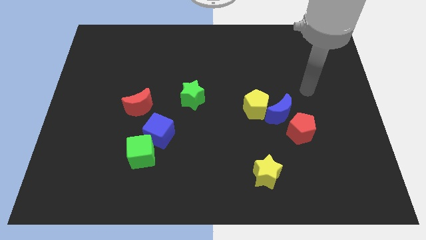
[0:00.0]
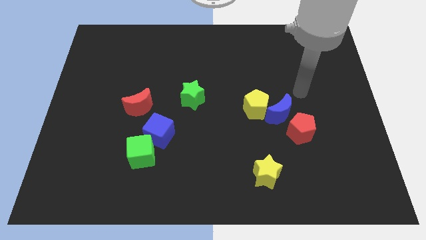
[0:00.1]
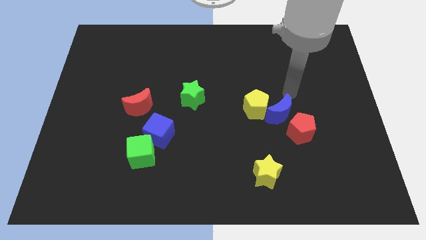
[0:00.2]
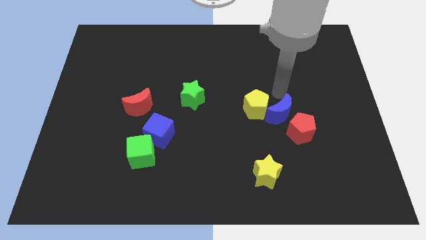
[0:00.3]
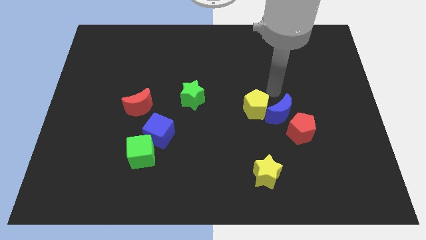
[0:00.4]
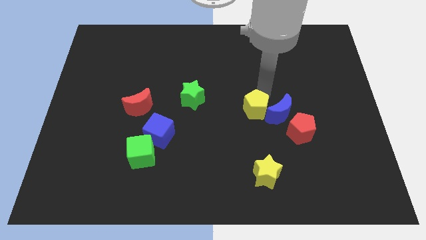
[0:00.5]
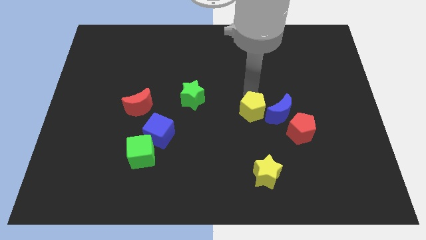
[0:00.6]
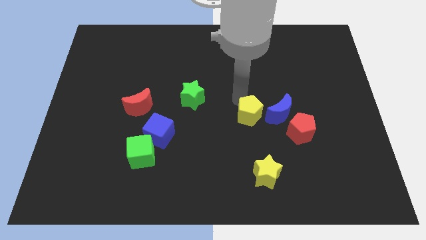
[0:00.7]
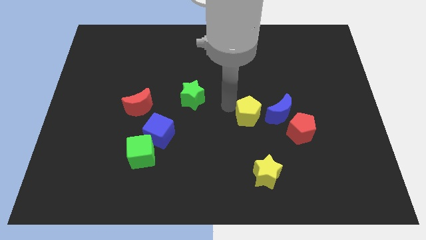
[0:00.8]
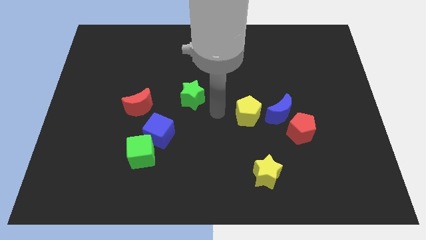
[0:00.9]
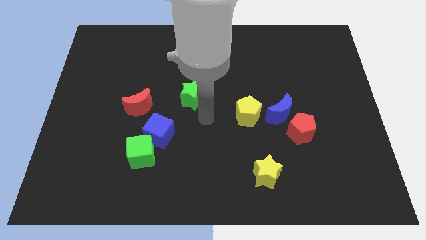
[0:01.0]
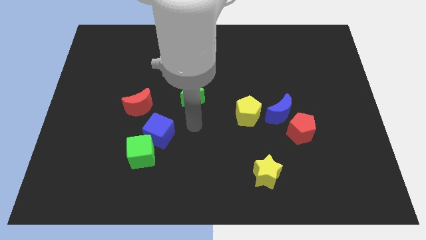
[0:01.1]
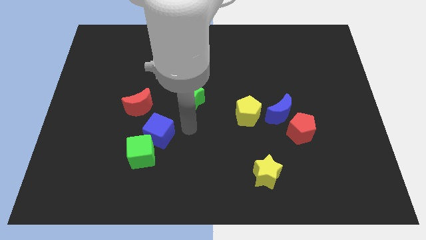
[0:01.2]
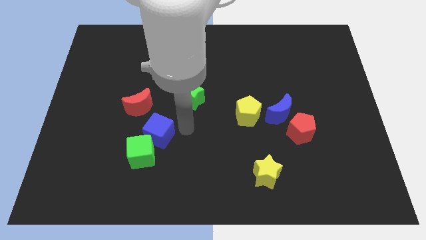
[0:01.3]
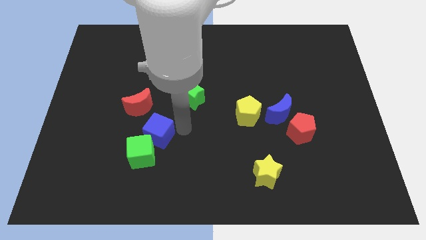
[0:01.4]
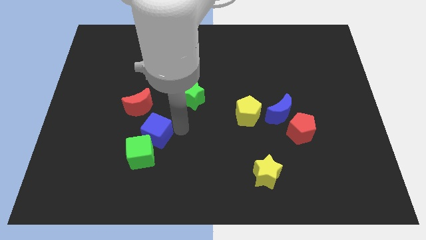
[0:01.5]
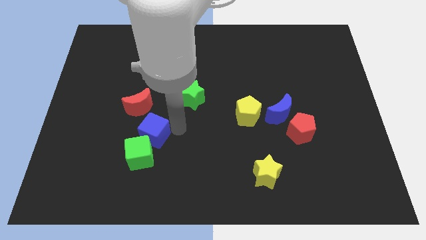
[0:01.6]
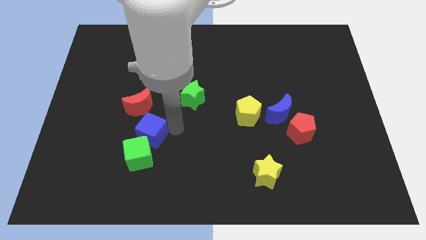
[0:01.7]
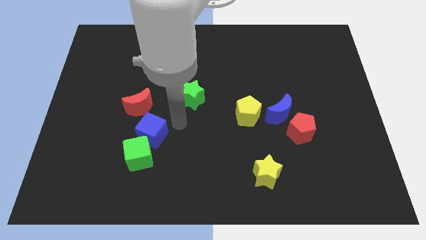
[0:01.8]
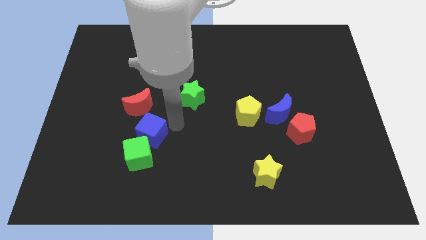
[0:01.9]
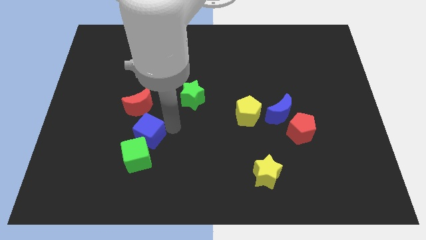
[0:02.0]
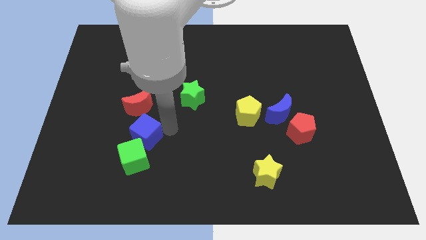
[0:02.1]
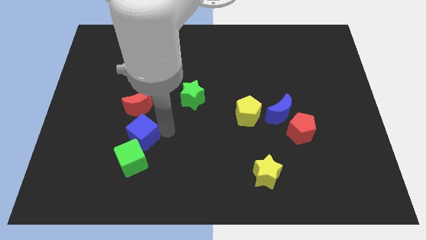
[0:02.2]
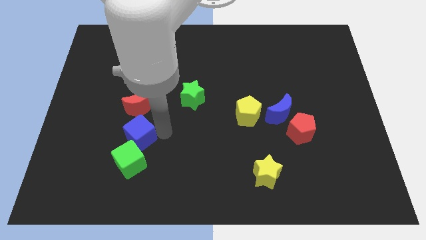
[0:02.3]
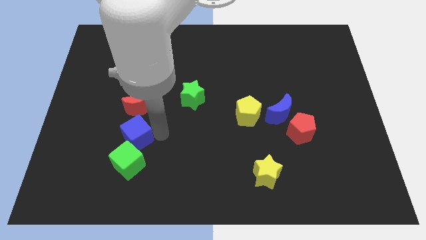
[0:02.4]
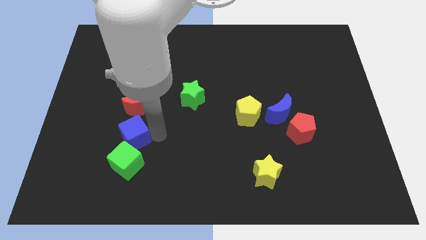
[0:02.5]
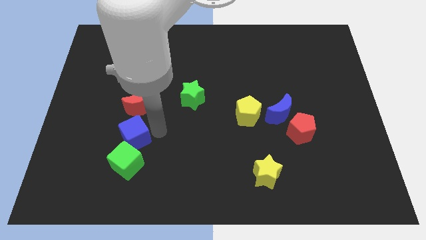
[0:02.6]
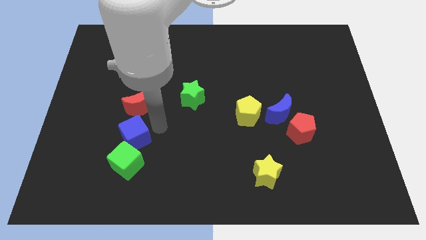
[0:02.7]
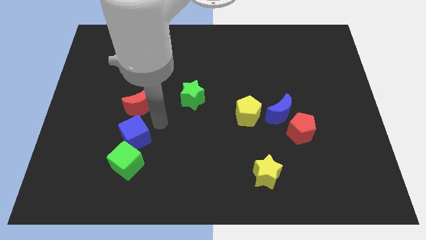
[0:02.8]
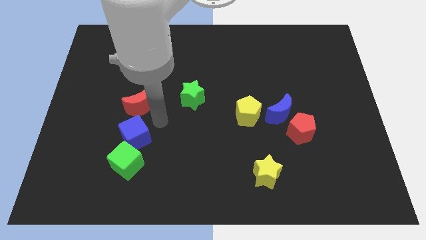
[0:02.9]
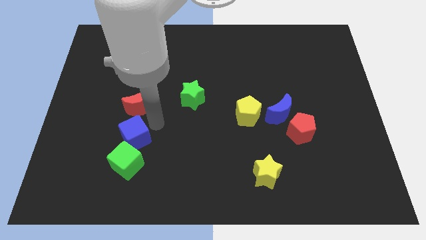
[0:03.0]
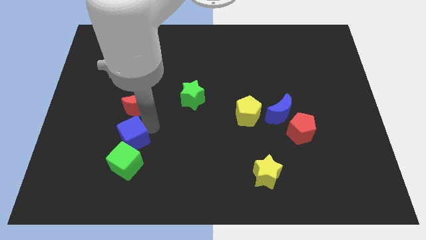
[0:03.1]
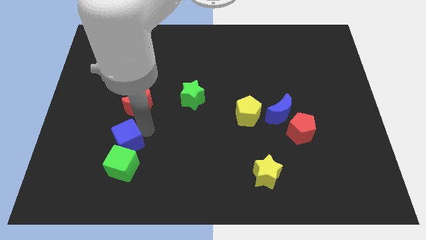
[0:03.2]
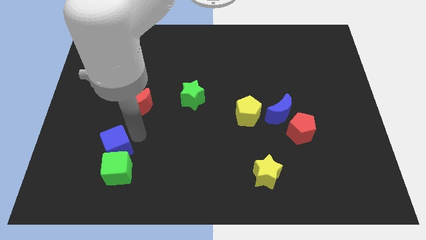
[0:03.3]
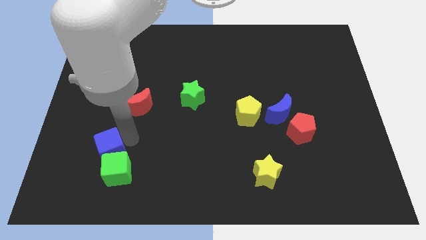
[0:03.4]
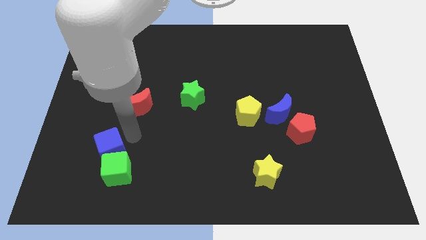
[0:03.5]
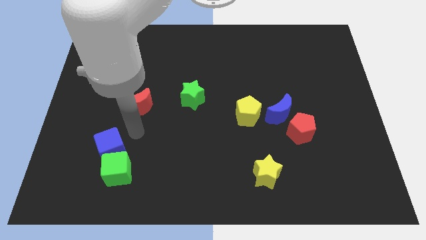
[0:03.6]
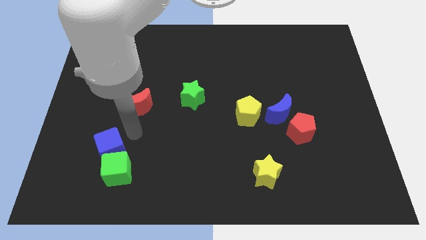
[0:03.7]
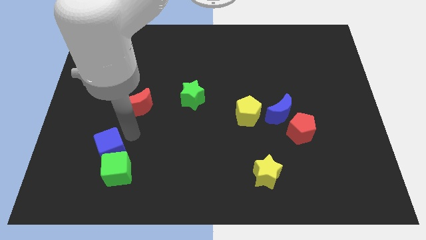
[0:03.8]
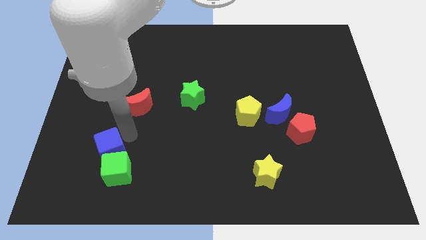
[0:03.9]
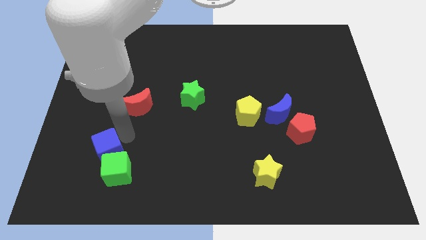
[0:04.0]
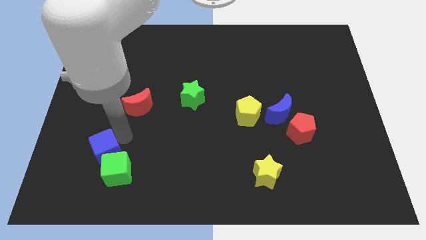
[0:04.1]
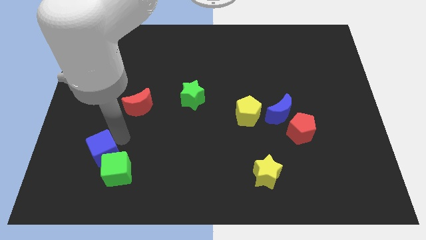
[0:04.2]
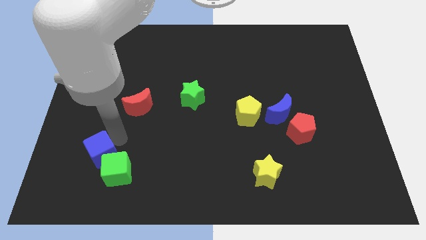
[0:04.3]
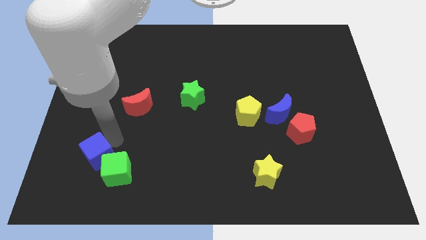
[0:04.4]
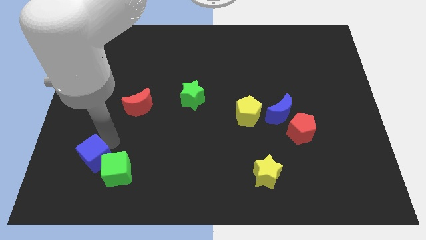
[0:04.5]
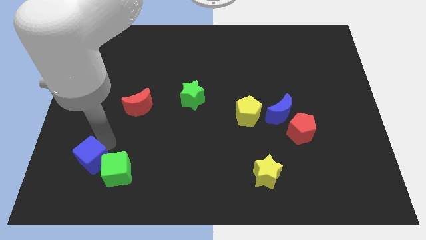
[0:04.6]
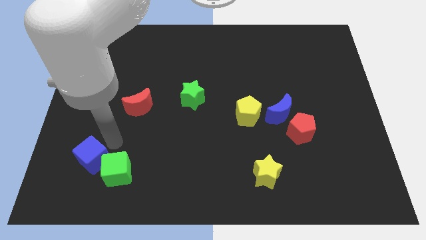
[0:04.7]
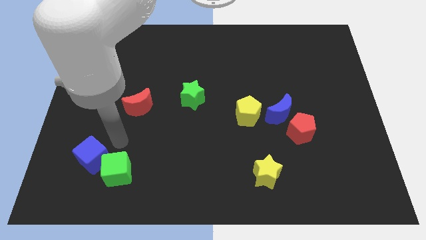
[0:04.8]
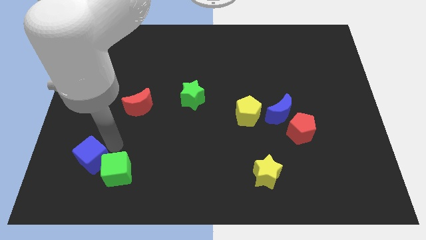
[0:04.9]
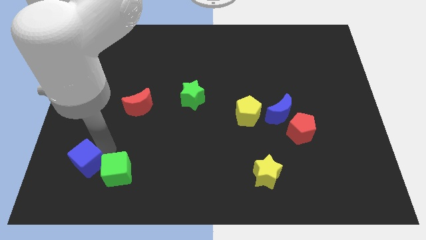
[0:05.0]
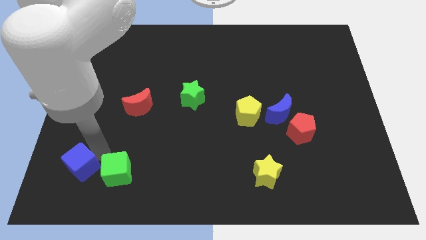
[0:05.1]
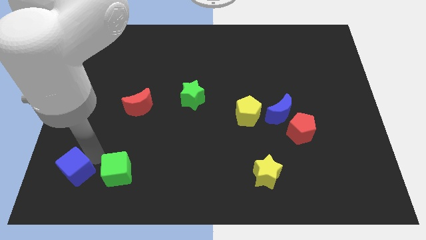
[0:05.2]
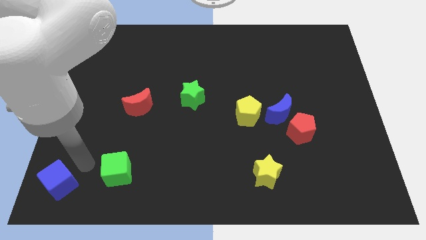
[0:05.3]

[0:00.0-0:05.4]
push the blue cube to the bottom left of the board

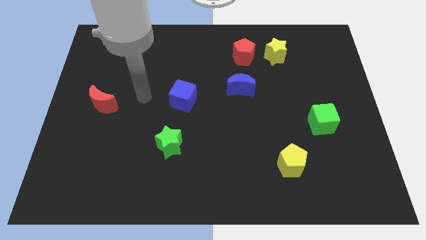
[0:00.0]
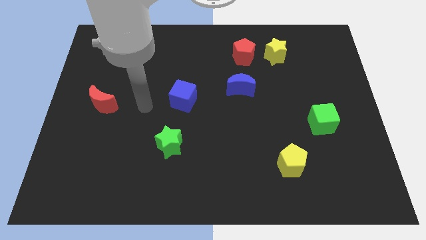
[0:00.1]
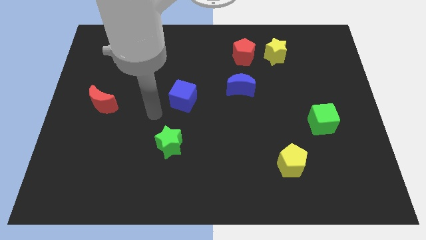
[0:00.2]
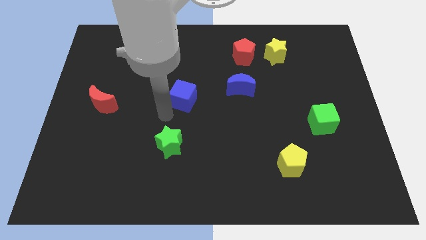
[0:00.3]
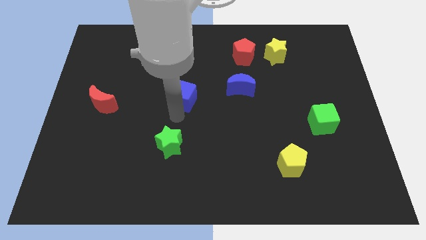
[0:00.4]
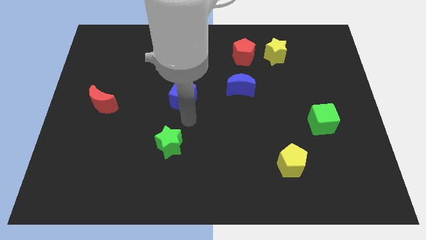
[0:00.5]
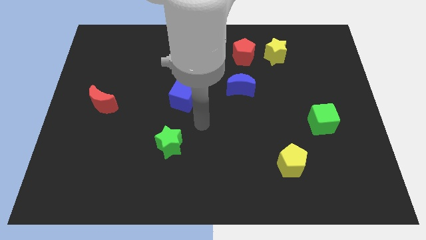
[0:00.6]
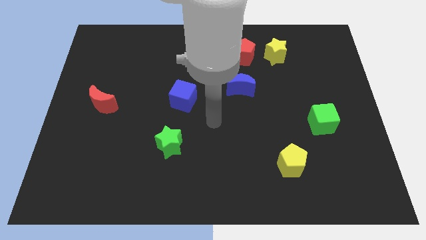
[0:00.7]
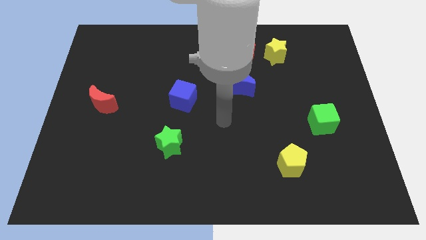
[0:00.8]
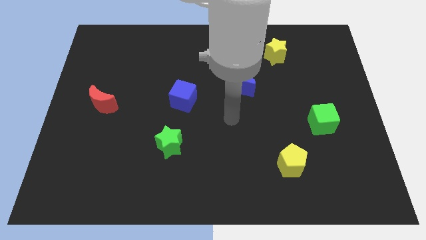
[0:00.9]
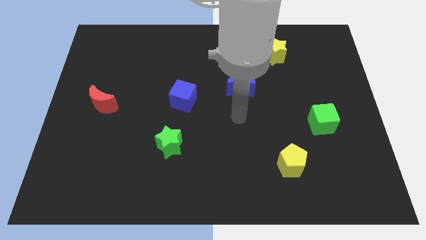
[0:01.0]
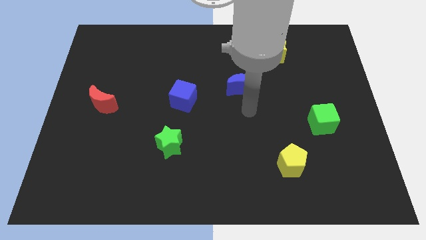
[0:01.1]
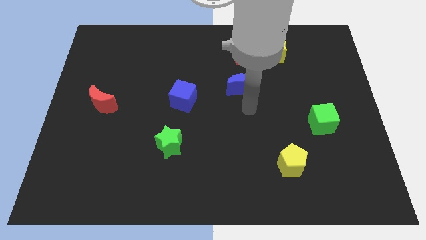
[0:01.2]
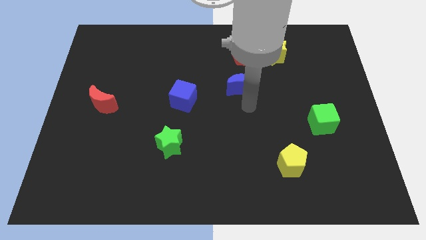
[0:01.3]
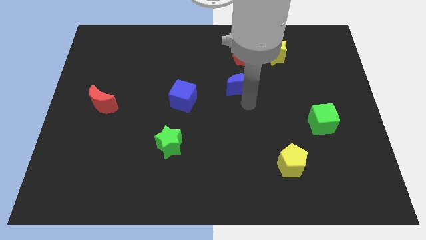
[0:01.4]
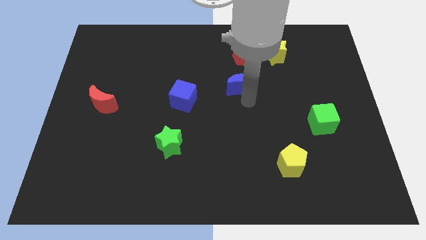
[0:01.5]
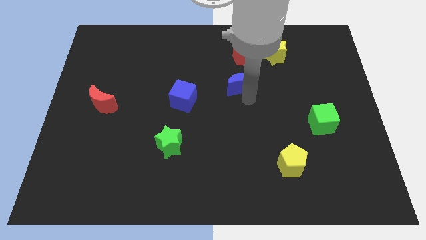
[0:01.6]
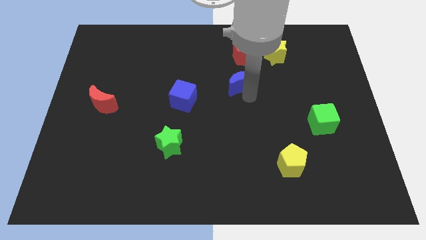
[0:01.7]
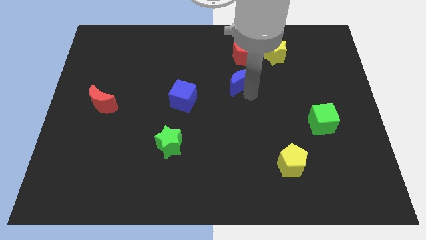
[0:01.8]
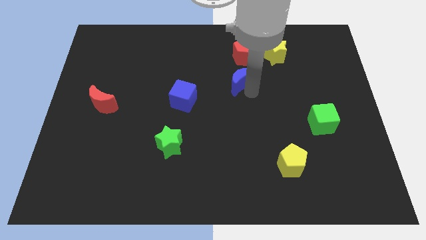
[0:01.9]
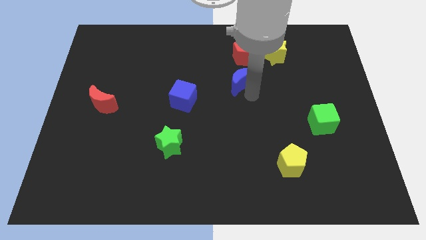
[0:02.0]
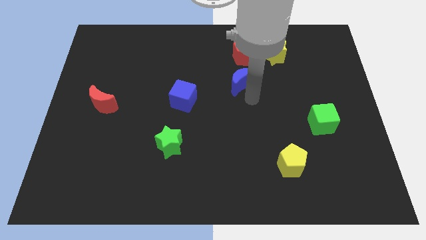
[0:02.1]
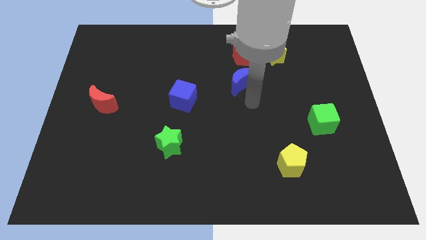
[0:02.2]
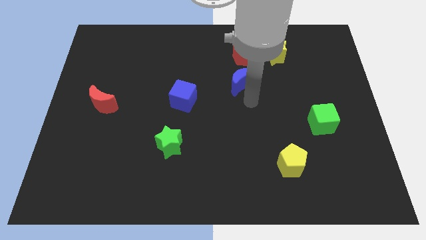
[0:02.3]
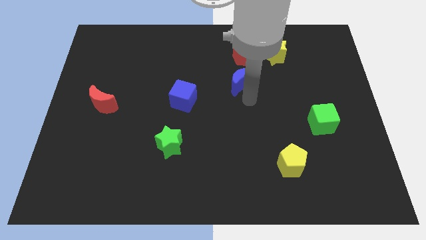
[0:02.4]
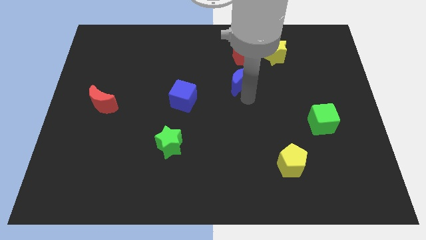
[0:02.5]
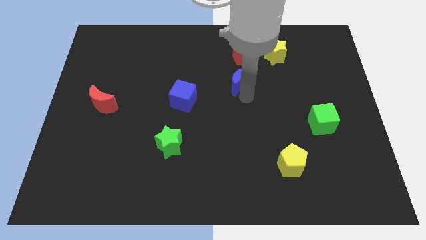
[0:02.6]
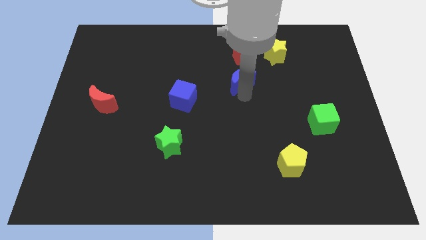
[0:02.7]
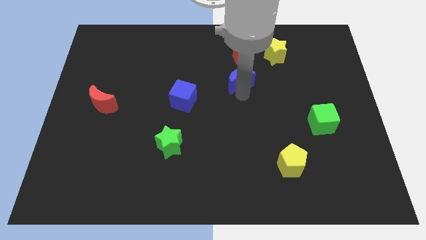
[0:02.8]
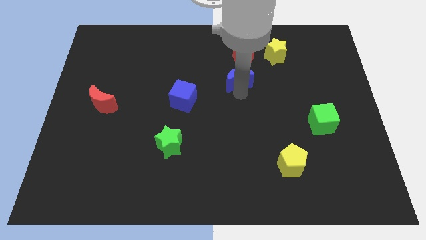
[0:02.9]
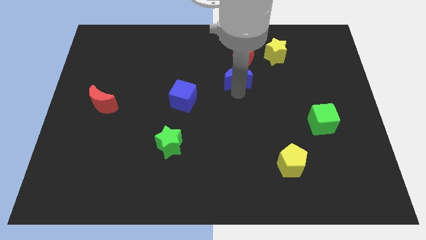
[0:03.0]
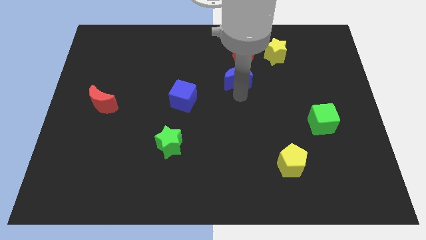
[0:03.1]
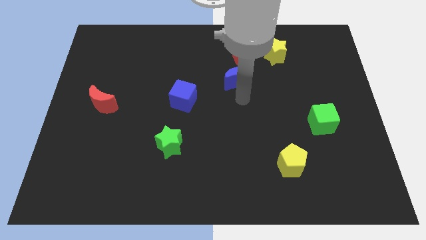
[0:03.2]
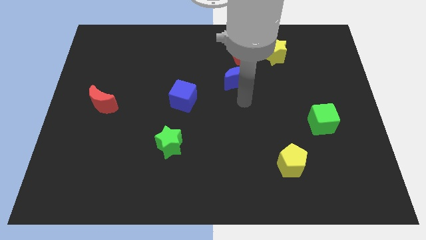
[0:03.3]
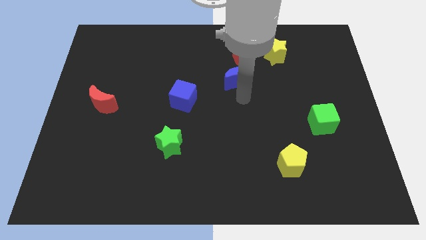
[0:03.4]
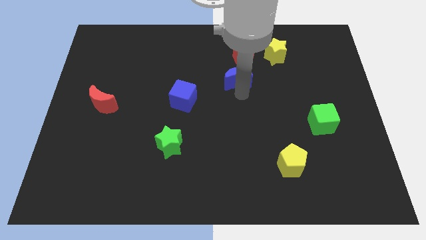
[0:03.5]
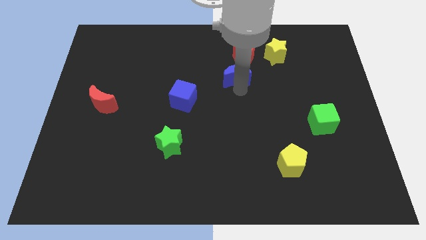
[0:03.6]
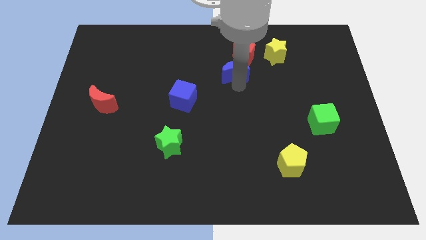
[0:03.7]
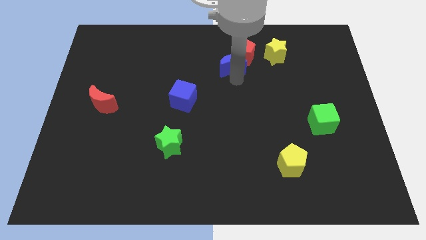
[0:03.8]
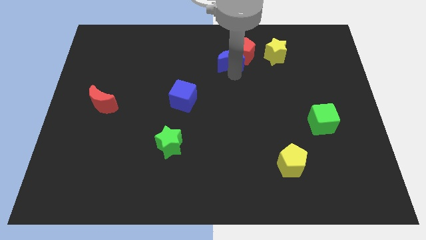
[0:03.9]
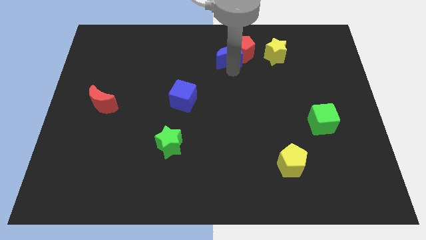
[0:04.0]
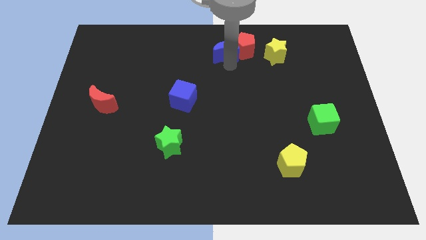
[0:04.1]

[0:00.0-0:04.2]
put the blue moon to the towards your base
